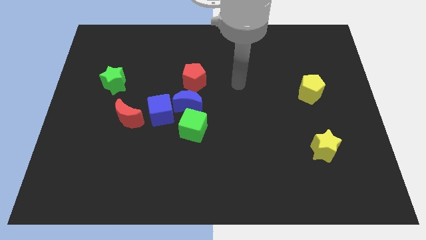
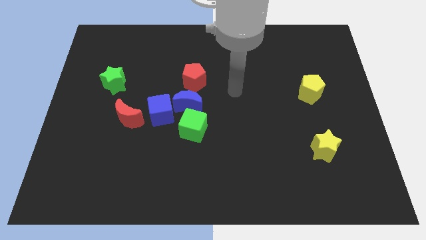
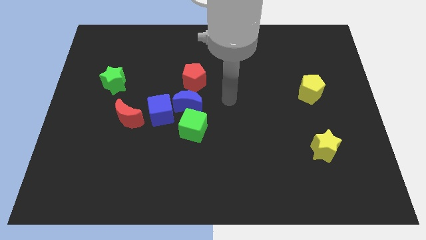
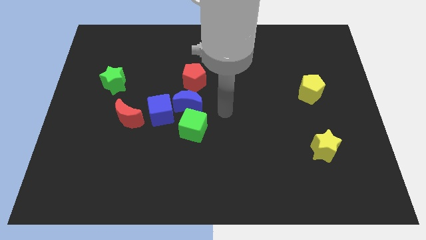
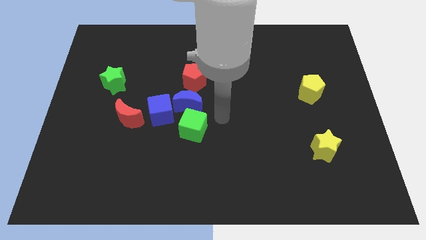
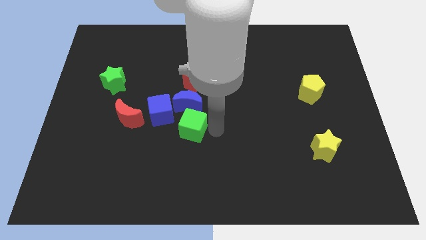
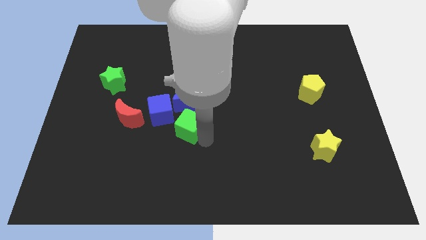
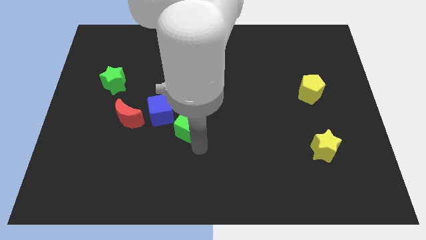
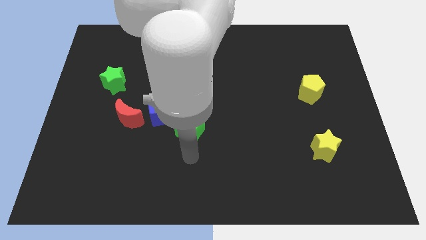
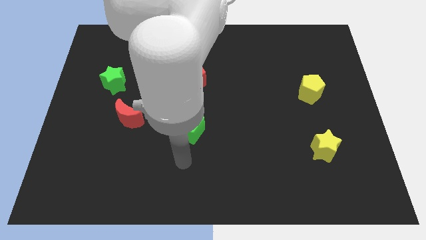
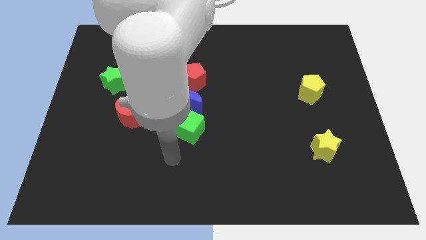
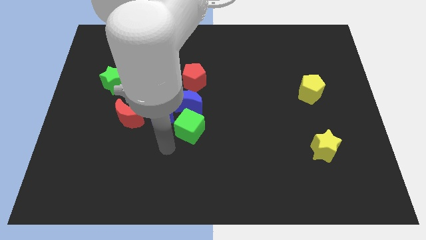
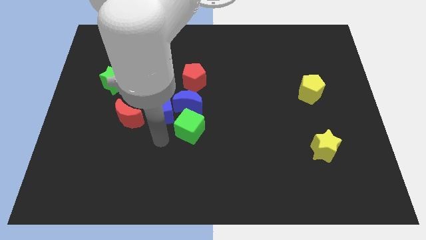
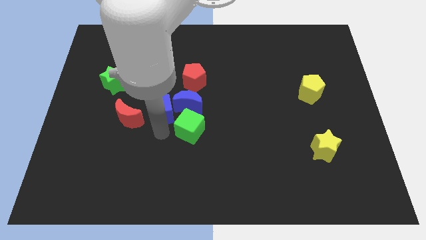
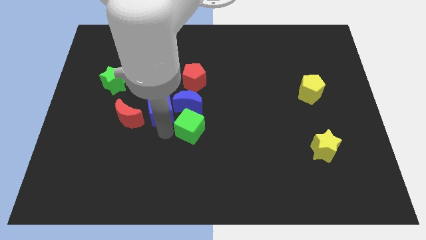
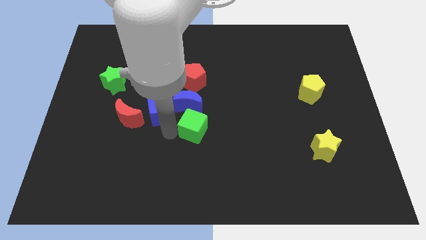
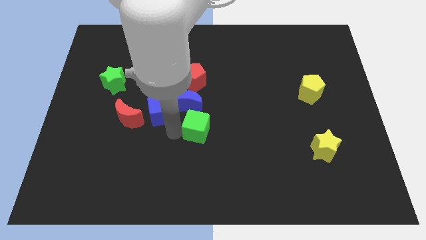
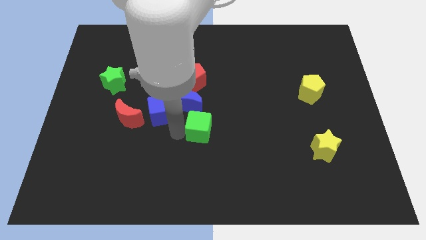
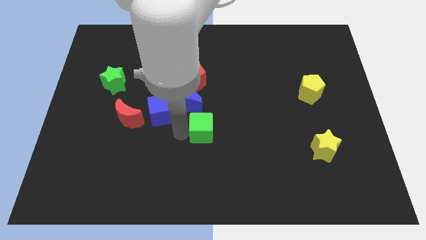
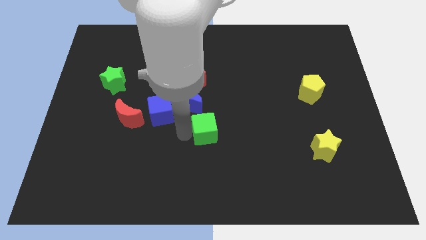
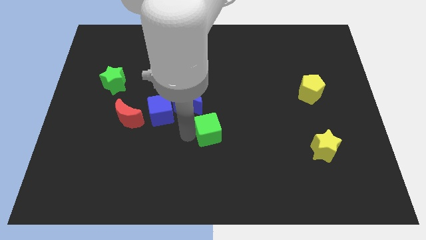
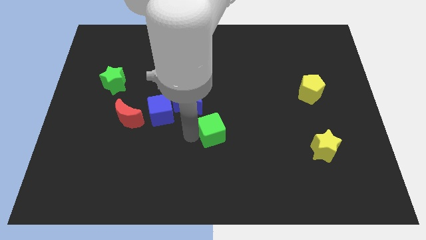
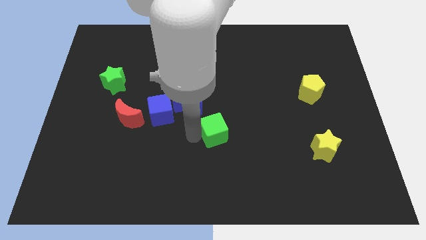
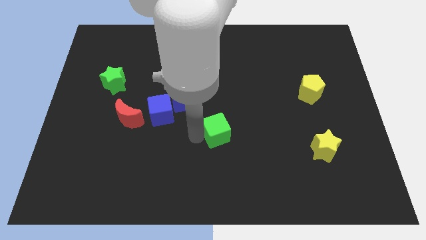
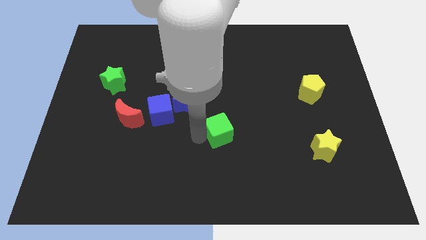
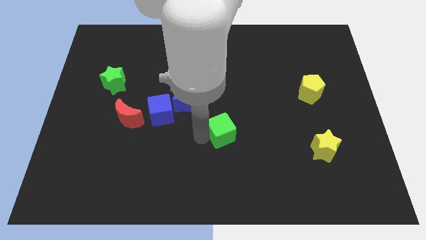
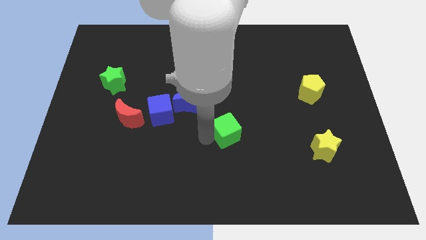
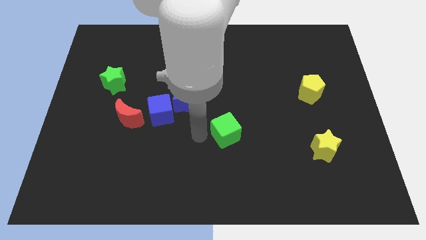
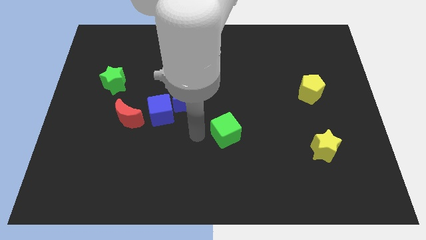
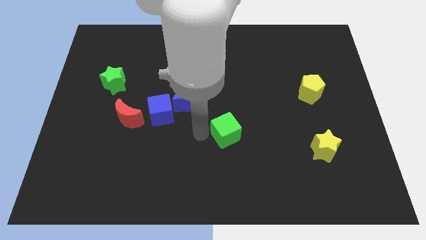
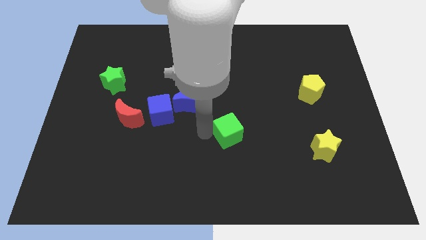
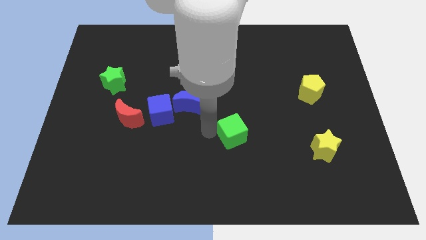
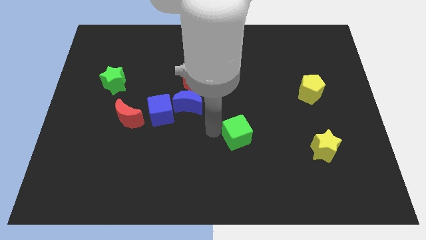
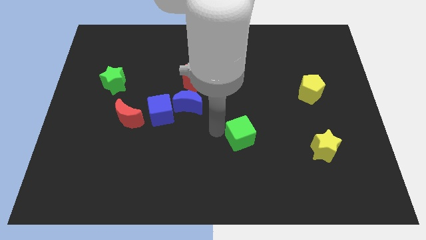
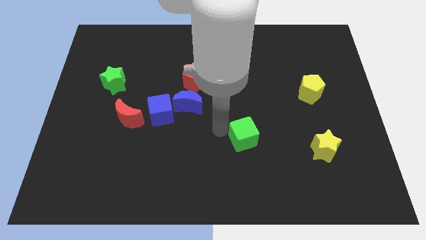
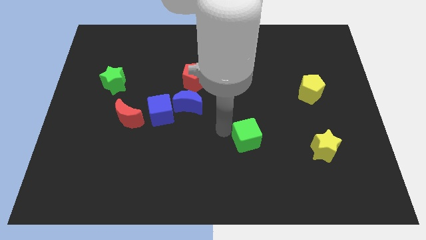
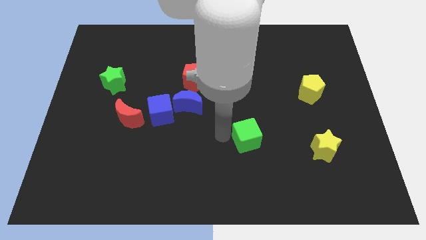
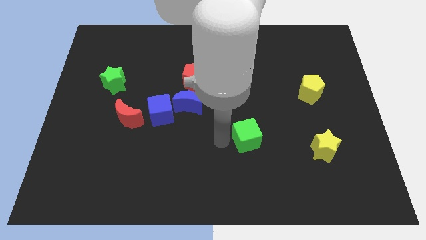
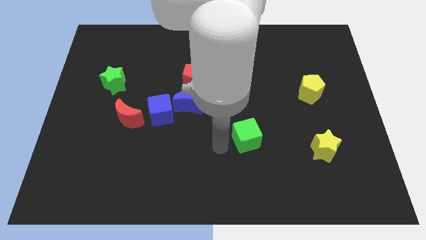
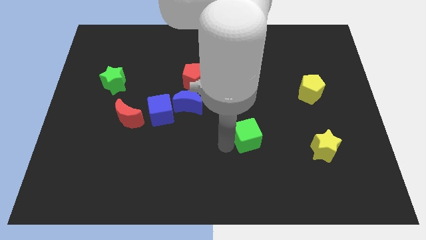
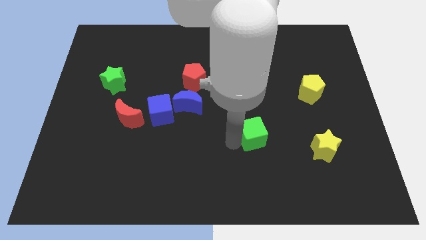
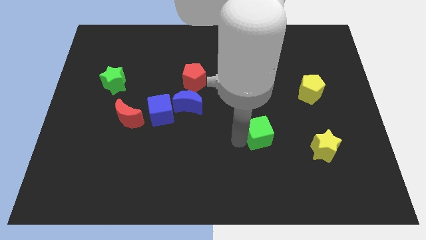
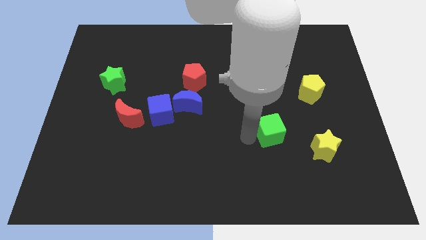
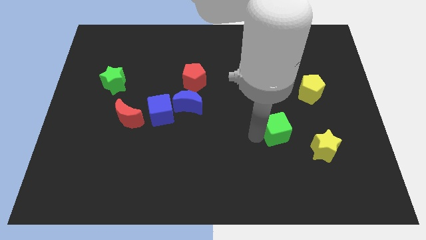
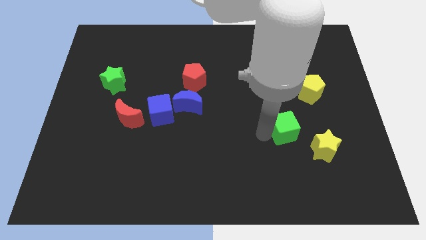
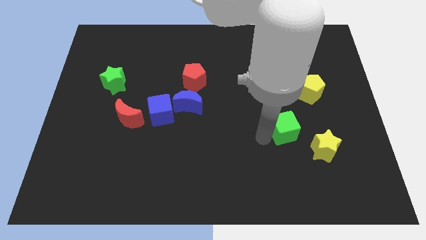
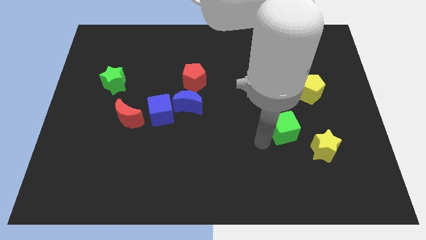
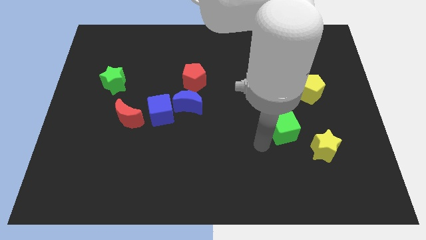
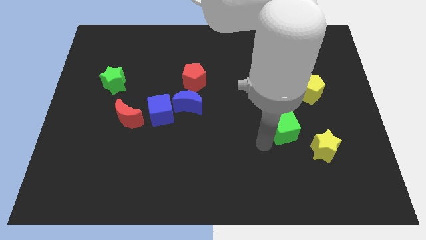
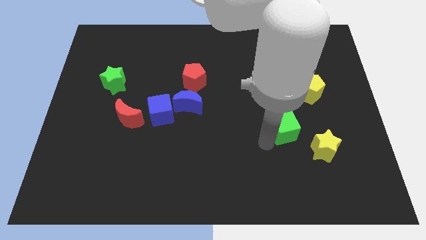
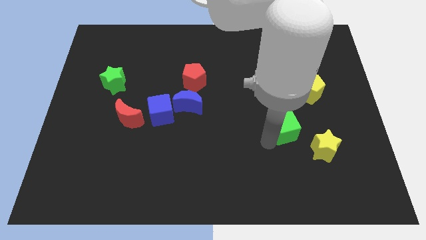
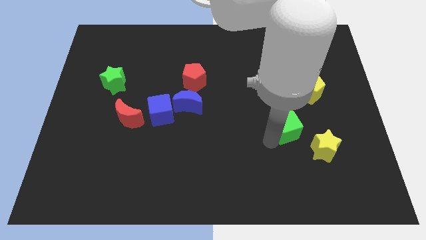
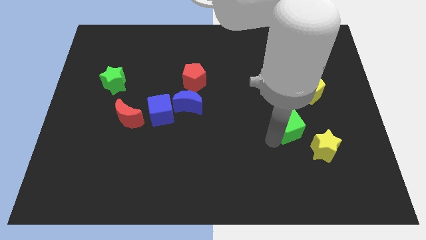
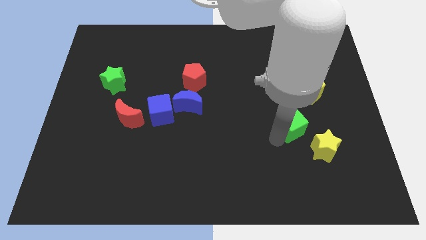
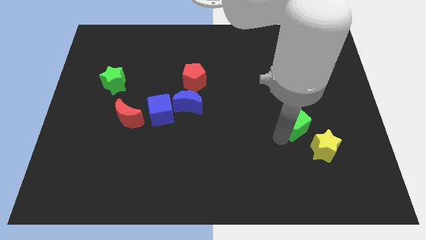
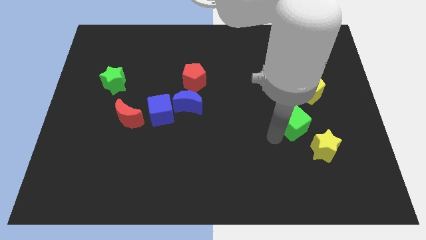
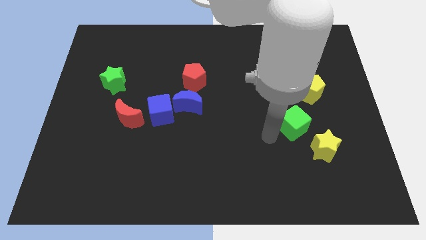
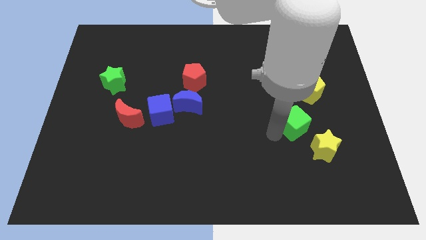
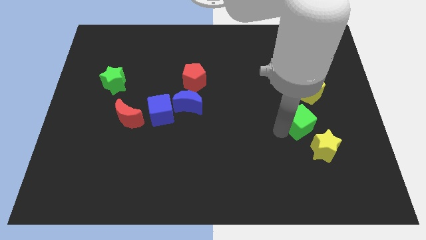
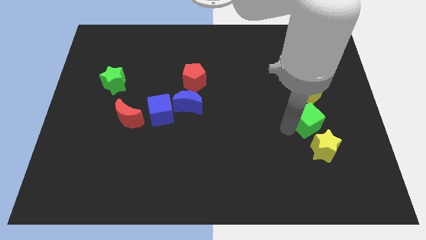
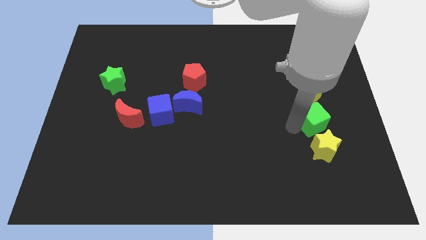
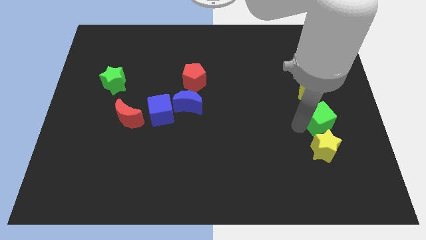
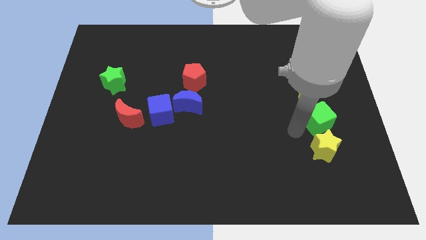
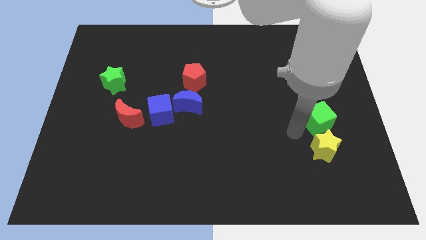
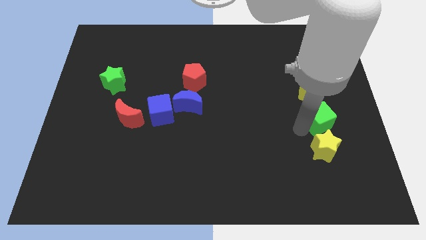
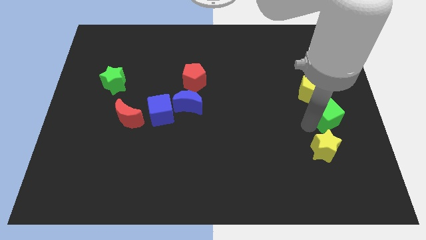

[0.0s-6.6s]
move the green cube to the right side of the board
